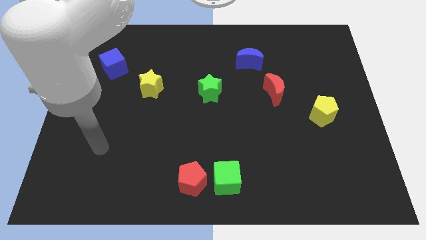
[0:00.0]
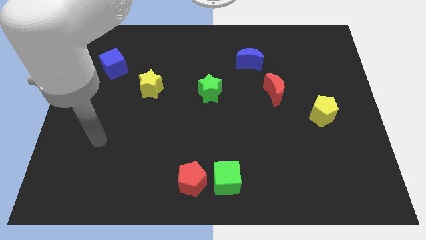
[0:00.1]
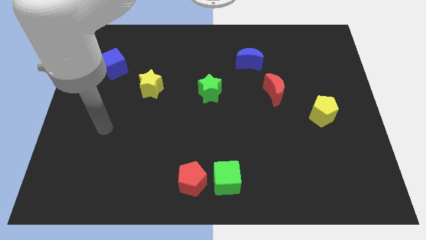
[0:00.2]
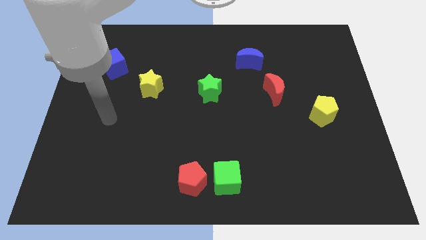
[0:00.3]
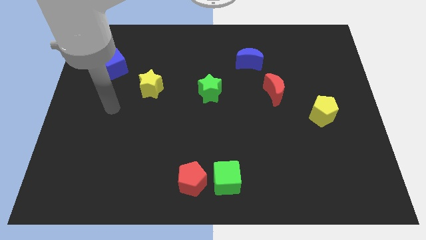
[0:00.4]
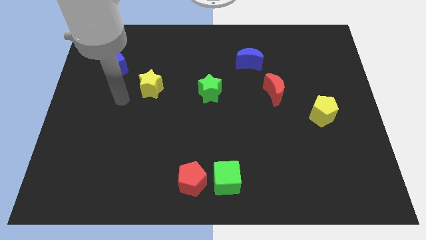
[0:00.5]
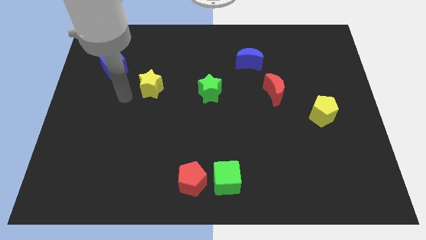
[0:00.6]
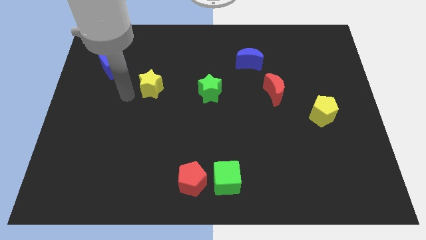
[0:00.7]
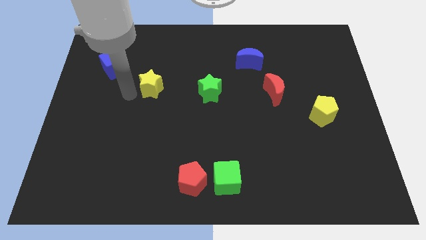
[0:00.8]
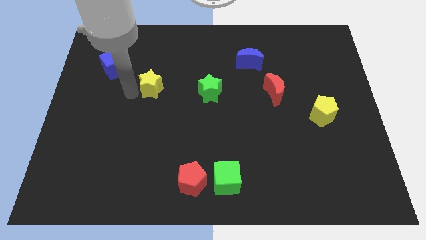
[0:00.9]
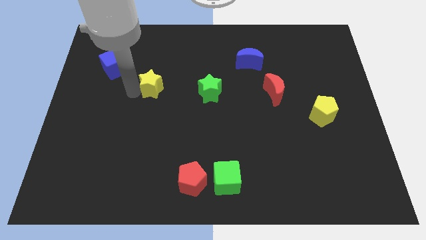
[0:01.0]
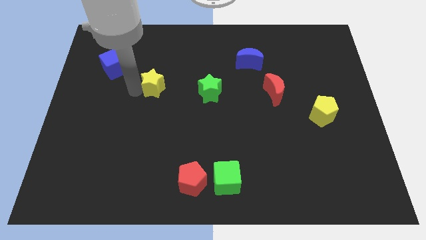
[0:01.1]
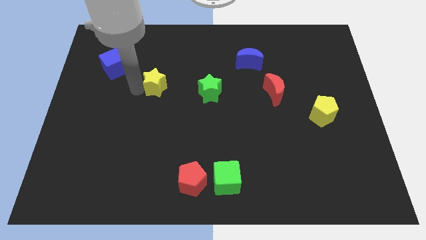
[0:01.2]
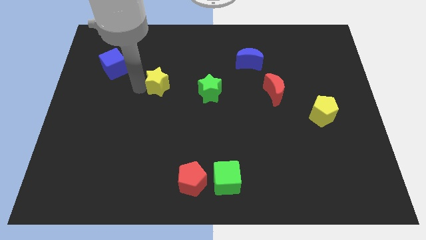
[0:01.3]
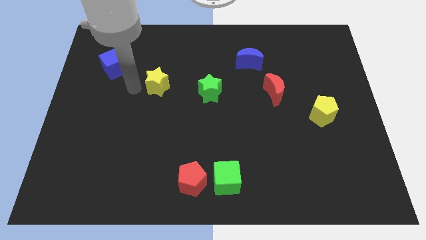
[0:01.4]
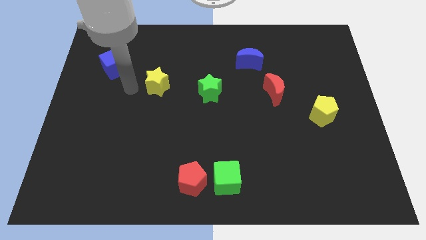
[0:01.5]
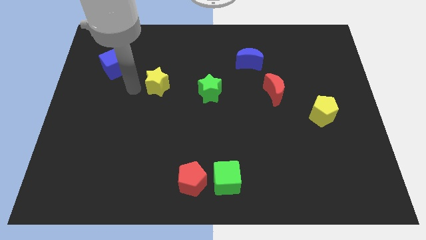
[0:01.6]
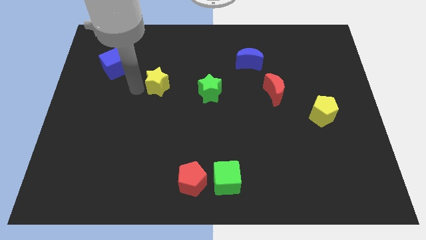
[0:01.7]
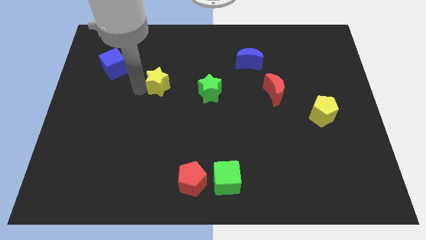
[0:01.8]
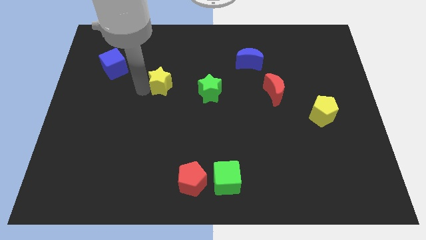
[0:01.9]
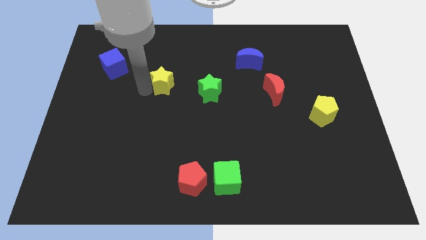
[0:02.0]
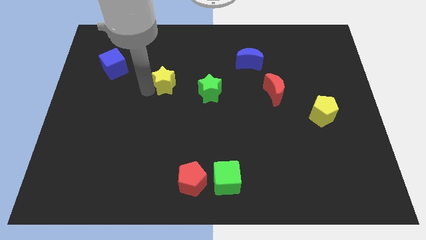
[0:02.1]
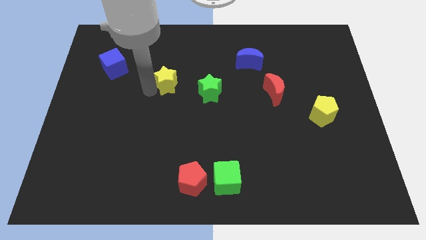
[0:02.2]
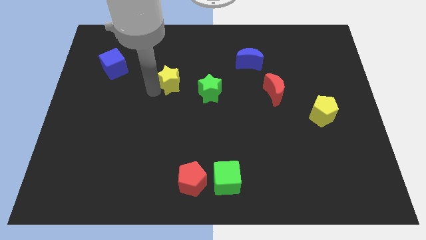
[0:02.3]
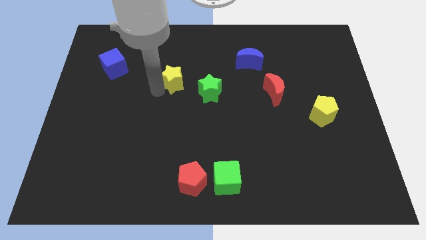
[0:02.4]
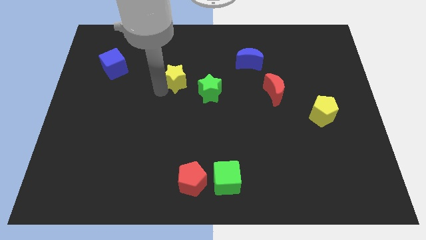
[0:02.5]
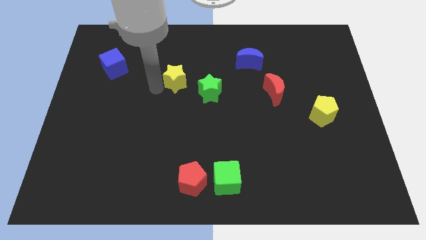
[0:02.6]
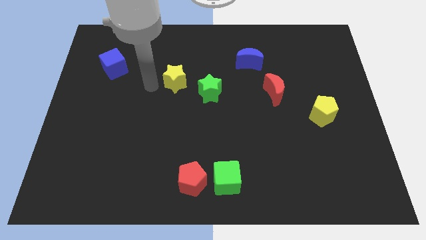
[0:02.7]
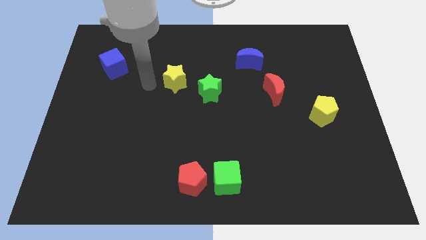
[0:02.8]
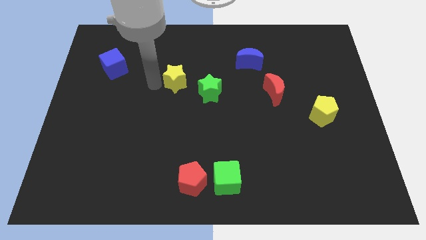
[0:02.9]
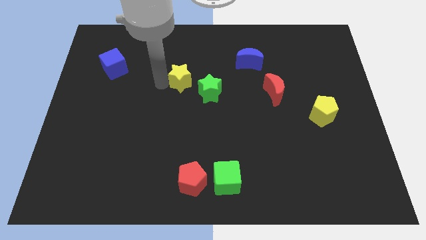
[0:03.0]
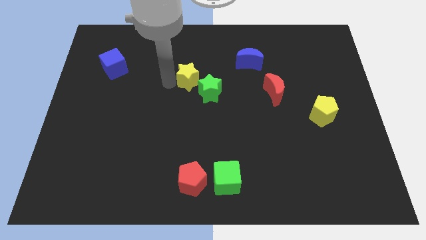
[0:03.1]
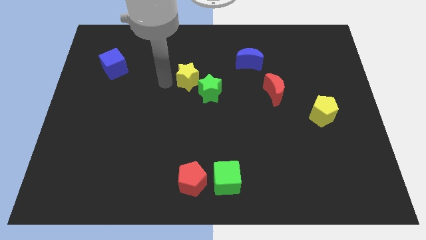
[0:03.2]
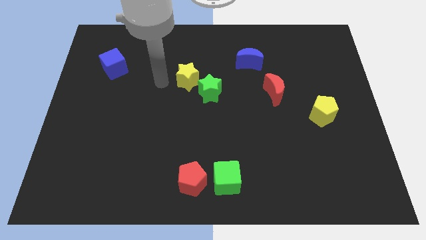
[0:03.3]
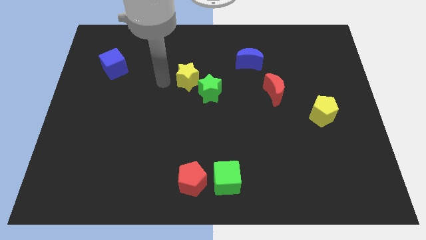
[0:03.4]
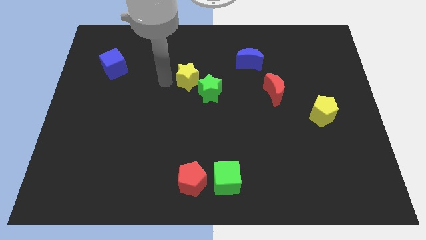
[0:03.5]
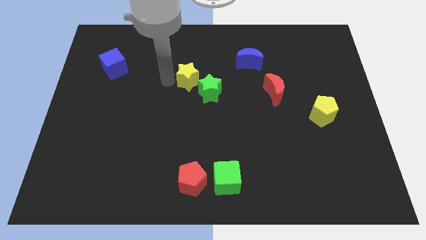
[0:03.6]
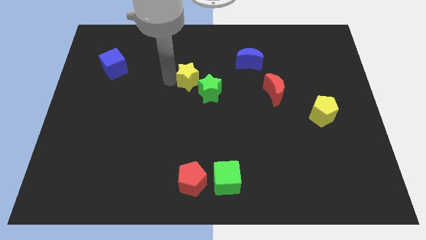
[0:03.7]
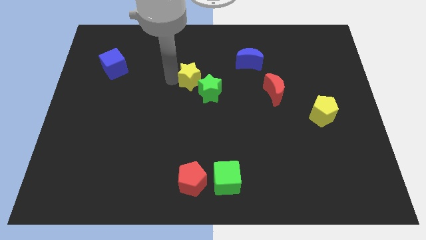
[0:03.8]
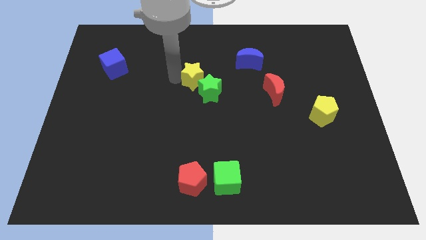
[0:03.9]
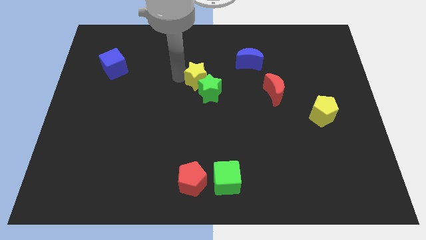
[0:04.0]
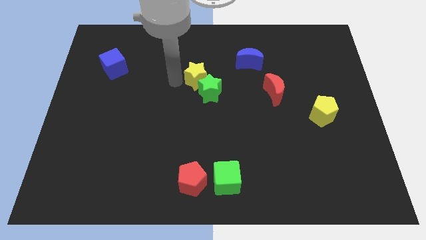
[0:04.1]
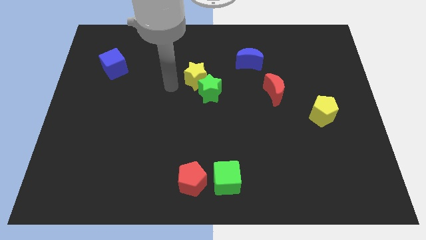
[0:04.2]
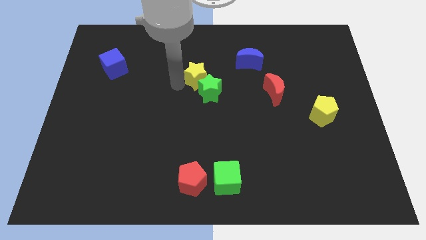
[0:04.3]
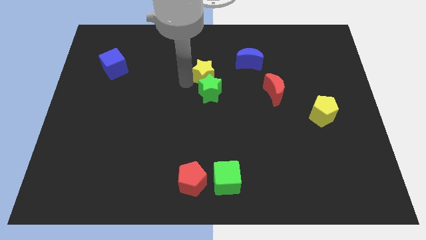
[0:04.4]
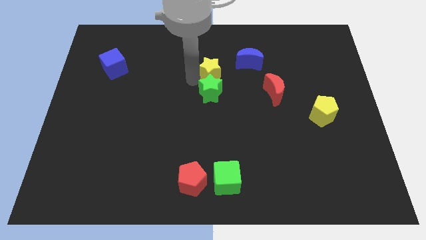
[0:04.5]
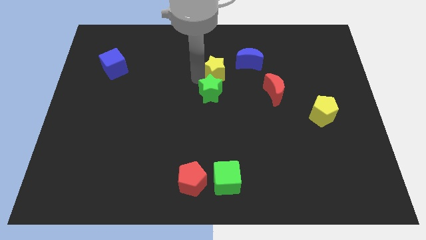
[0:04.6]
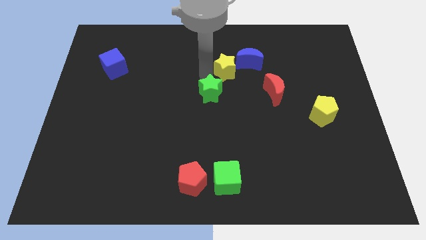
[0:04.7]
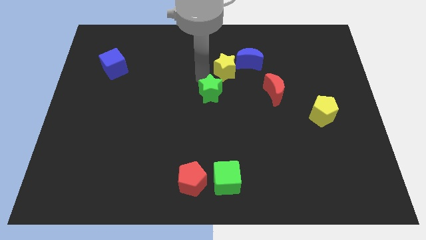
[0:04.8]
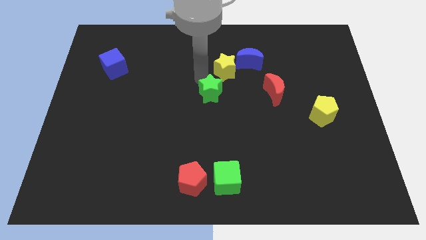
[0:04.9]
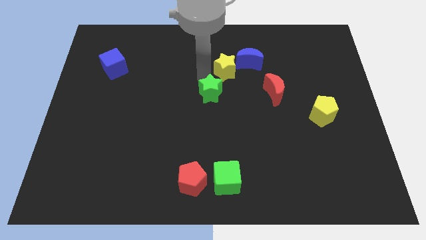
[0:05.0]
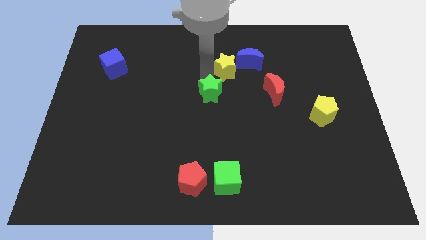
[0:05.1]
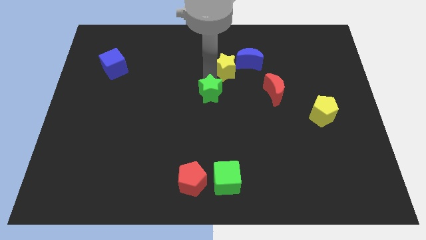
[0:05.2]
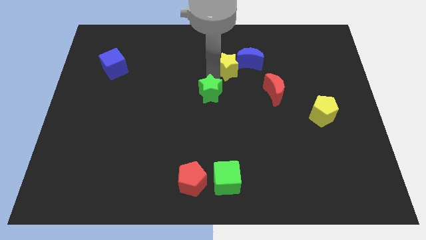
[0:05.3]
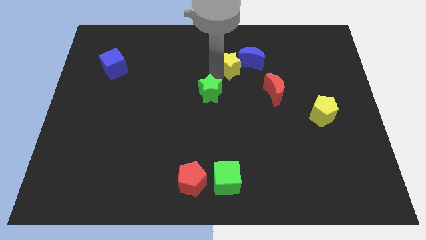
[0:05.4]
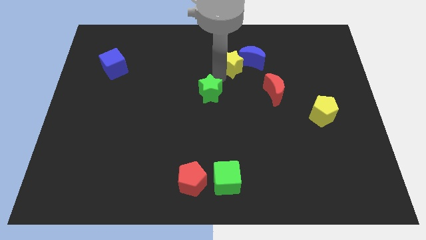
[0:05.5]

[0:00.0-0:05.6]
push the yellow star next to the blue moon

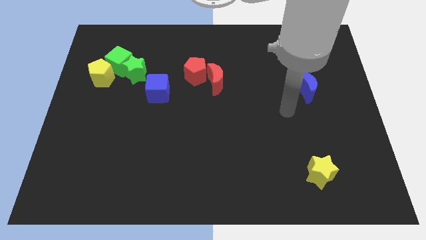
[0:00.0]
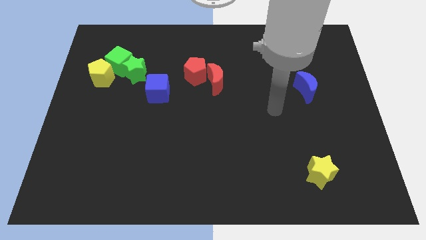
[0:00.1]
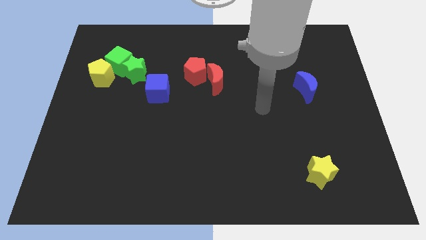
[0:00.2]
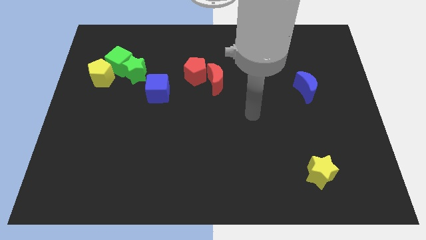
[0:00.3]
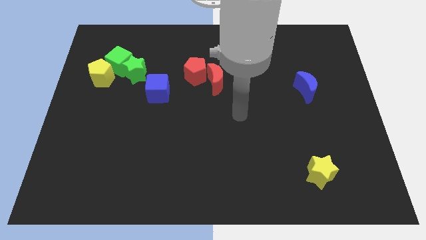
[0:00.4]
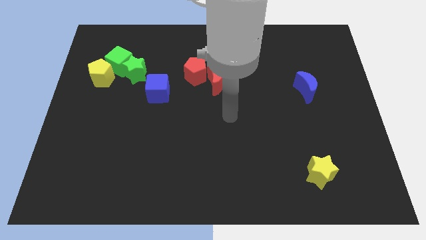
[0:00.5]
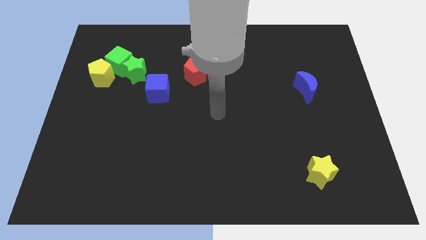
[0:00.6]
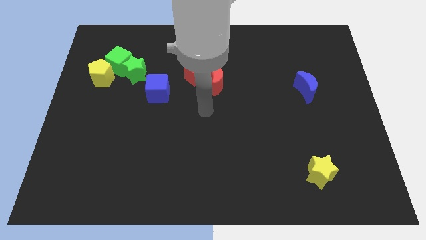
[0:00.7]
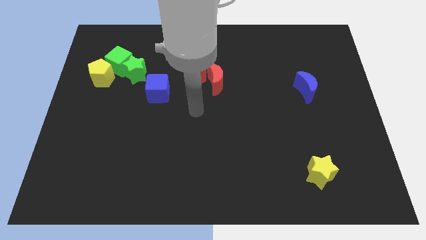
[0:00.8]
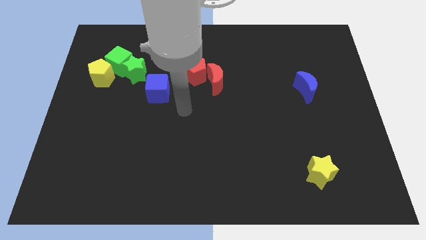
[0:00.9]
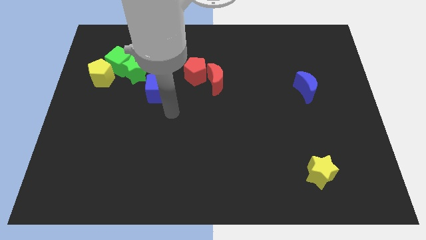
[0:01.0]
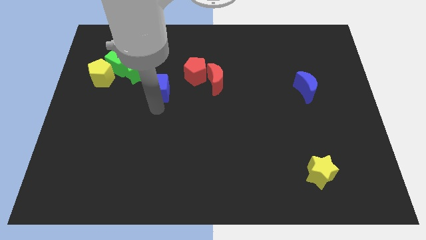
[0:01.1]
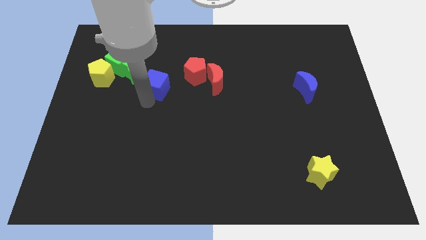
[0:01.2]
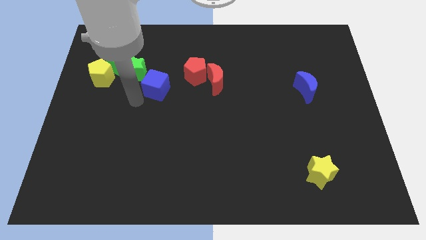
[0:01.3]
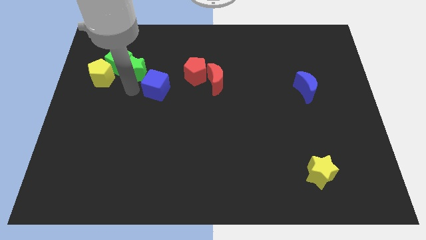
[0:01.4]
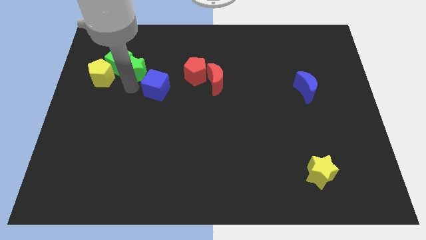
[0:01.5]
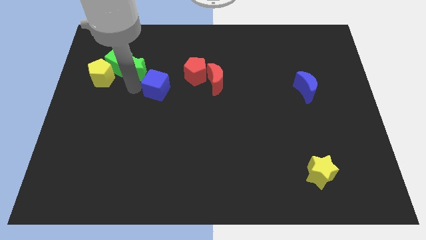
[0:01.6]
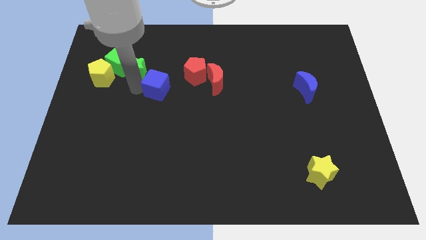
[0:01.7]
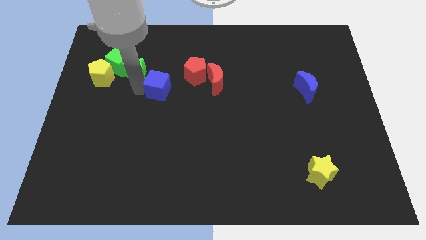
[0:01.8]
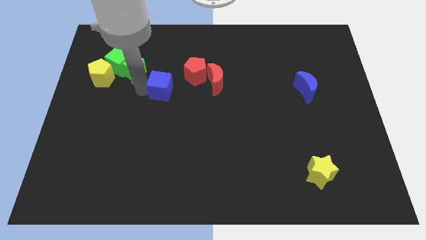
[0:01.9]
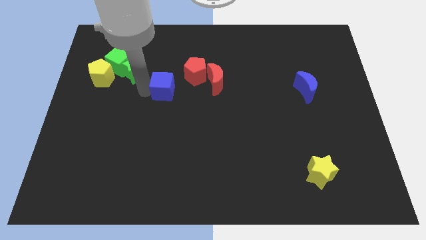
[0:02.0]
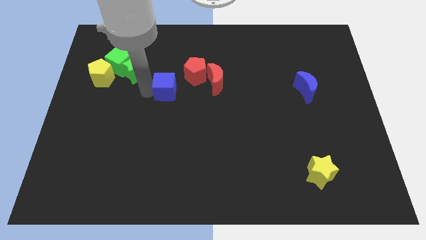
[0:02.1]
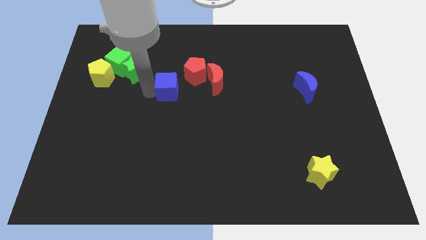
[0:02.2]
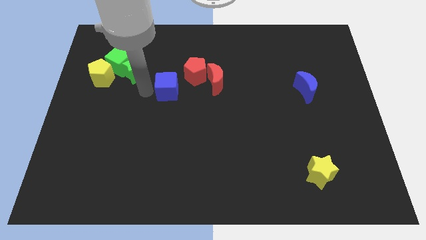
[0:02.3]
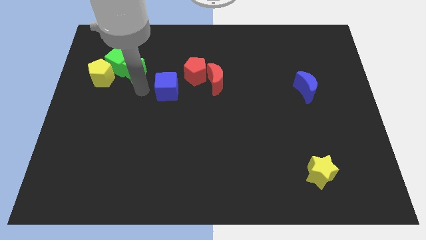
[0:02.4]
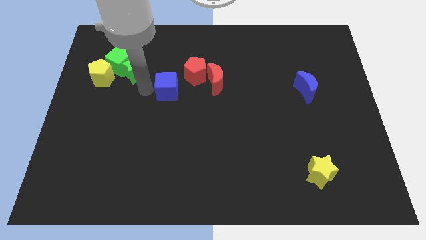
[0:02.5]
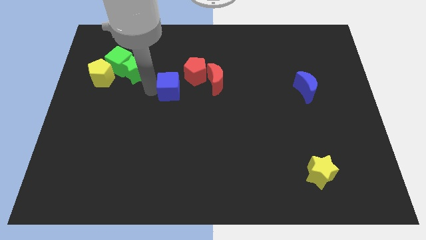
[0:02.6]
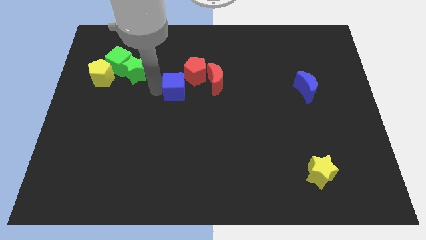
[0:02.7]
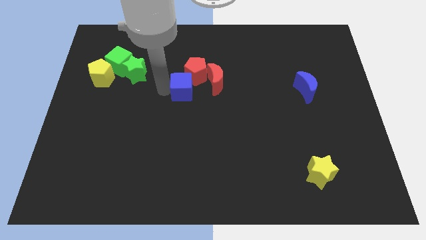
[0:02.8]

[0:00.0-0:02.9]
put the blue cube next to the red pentagon
